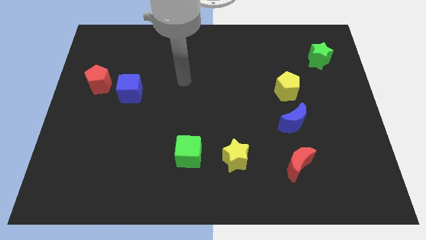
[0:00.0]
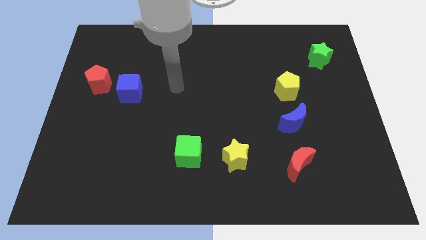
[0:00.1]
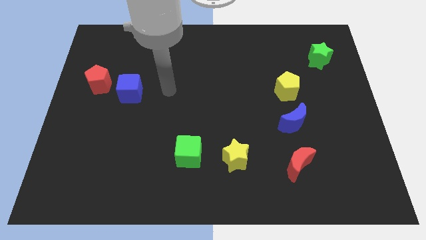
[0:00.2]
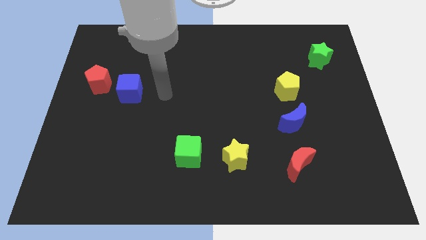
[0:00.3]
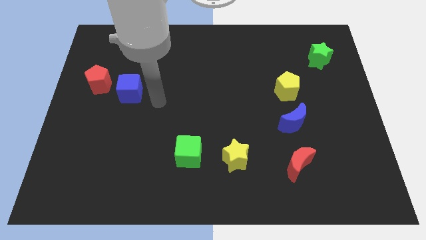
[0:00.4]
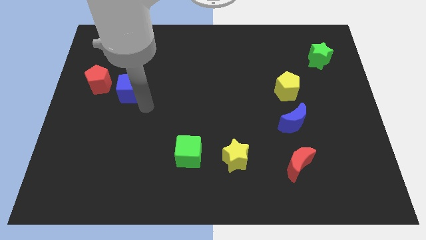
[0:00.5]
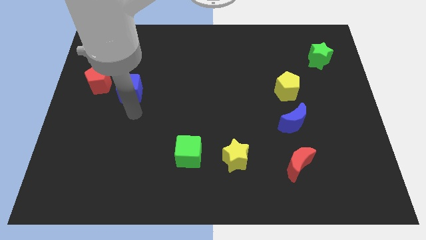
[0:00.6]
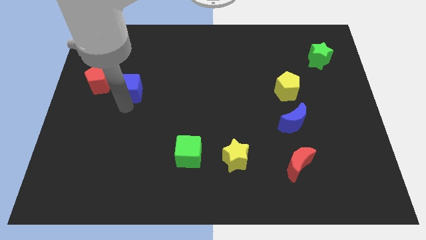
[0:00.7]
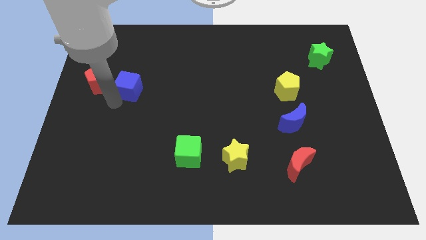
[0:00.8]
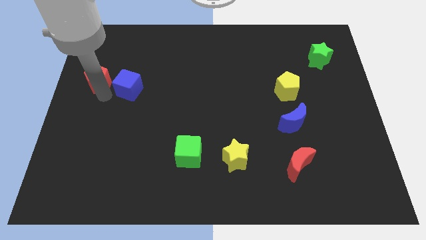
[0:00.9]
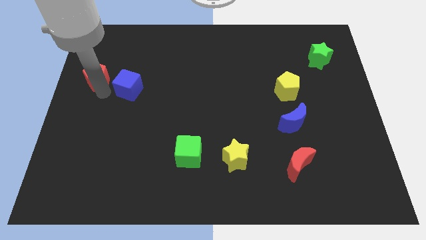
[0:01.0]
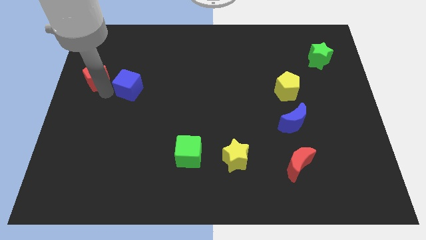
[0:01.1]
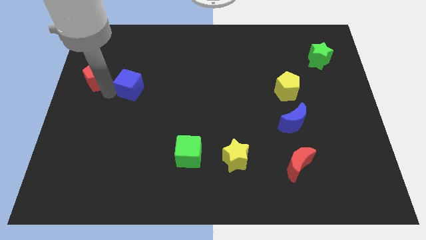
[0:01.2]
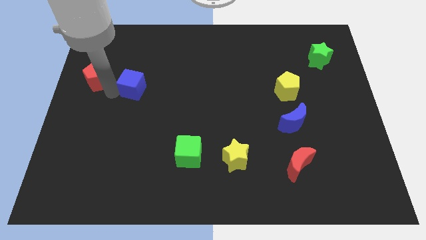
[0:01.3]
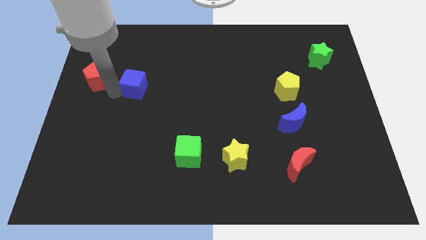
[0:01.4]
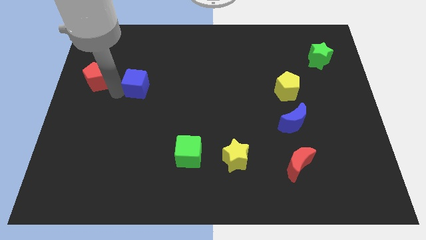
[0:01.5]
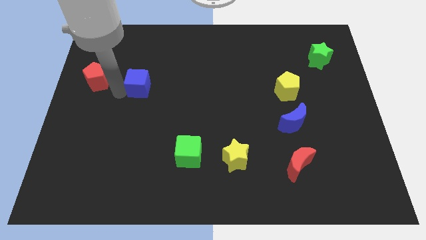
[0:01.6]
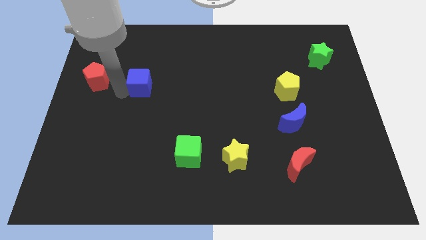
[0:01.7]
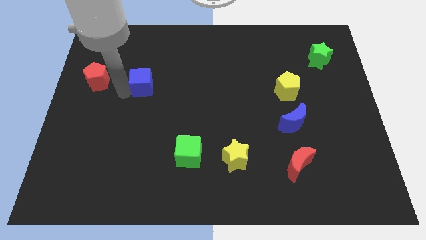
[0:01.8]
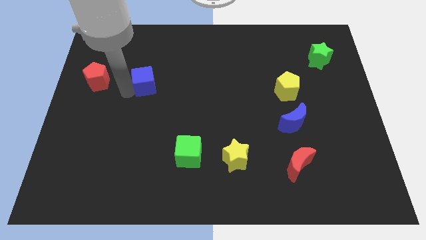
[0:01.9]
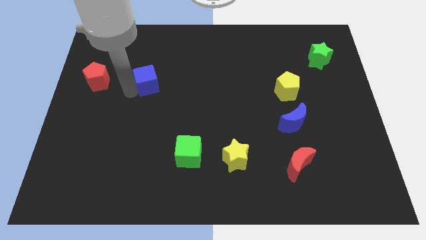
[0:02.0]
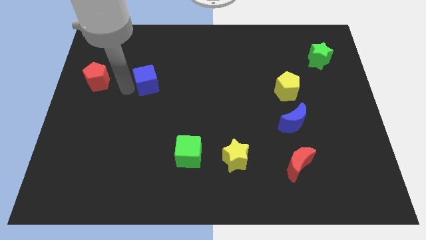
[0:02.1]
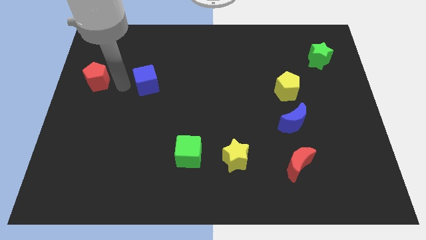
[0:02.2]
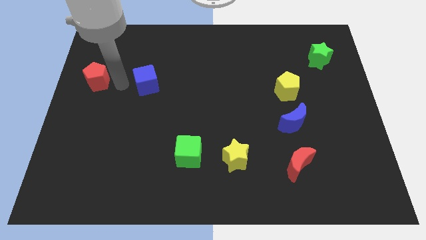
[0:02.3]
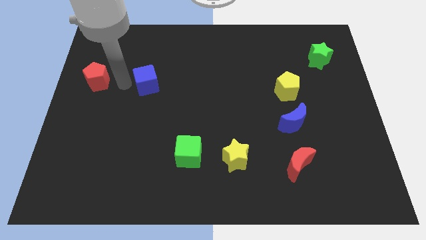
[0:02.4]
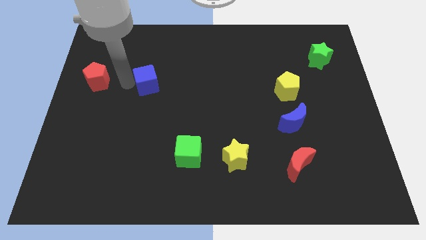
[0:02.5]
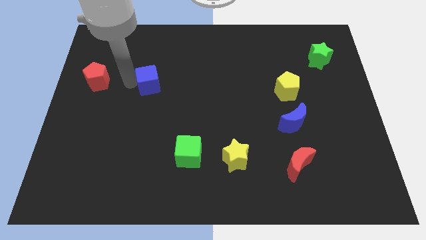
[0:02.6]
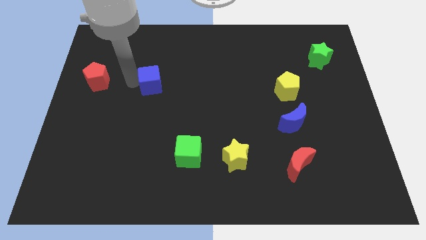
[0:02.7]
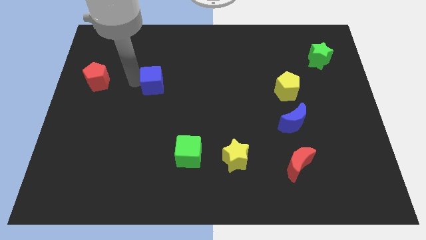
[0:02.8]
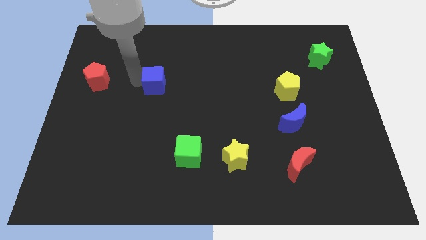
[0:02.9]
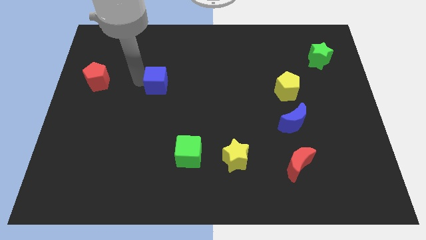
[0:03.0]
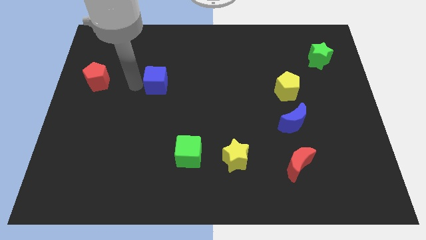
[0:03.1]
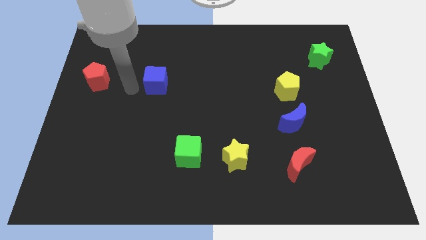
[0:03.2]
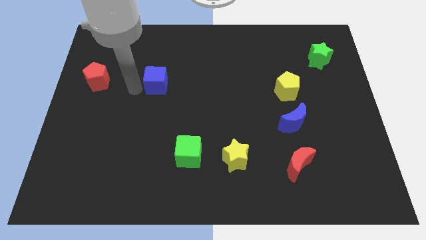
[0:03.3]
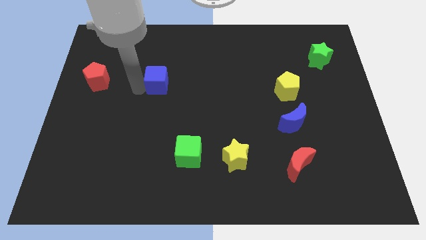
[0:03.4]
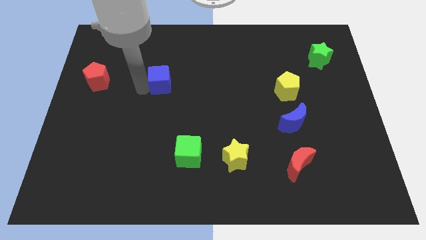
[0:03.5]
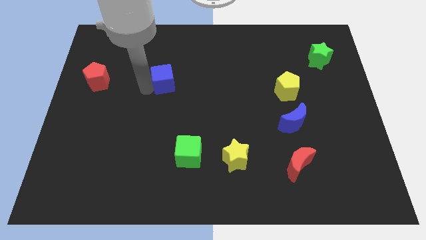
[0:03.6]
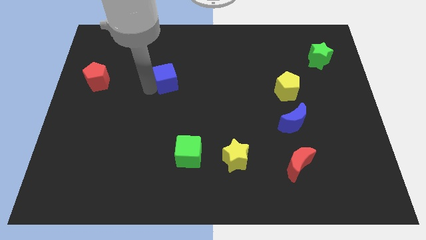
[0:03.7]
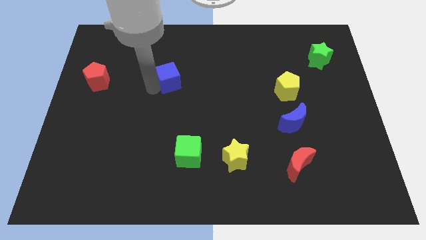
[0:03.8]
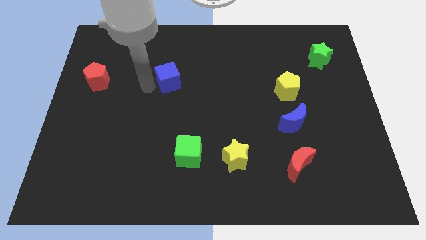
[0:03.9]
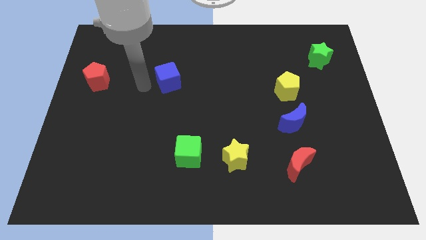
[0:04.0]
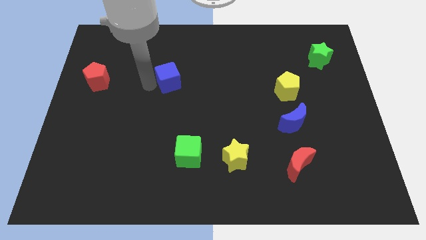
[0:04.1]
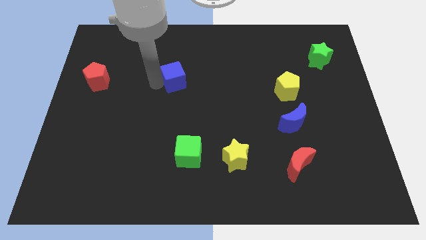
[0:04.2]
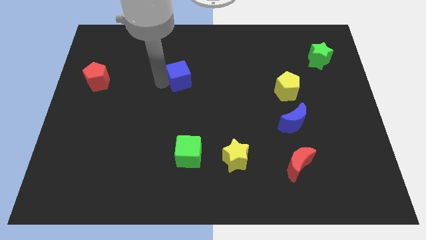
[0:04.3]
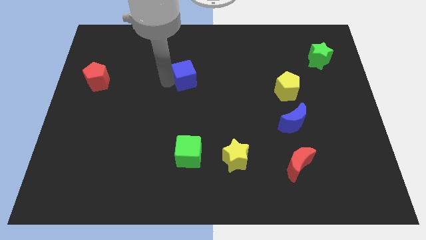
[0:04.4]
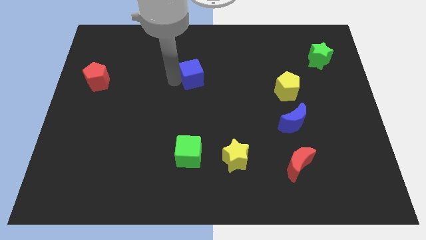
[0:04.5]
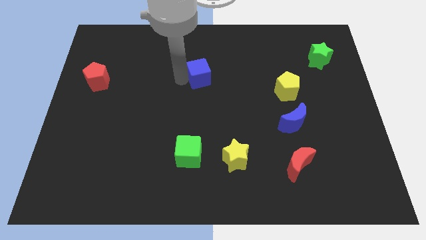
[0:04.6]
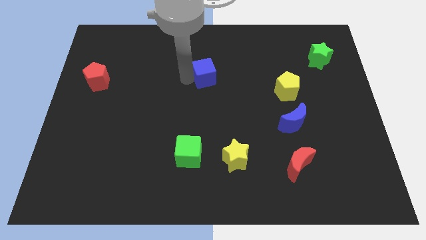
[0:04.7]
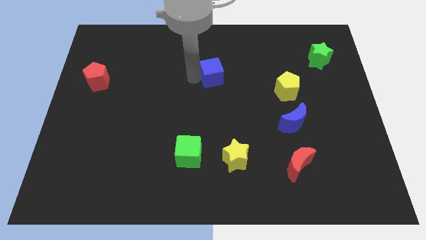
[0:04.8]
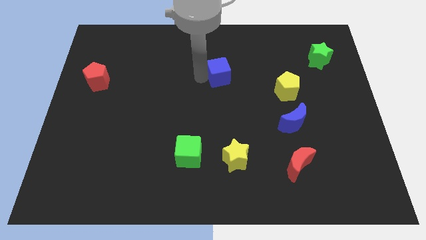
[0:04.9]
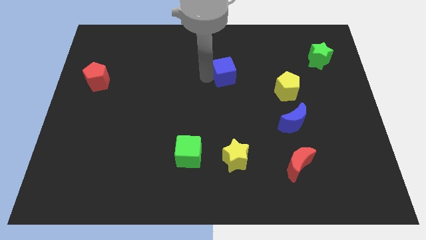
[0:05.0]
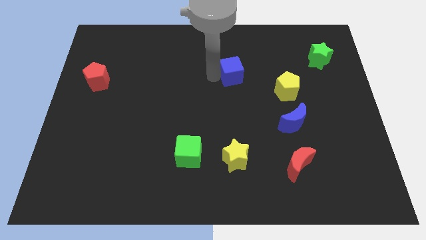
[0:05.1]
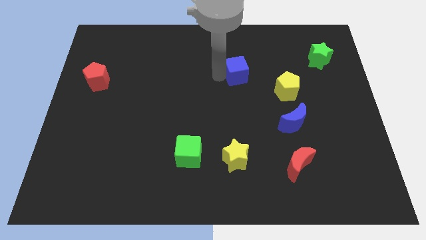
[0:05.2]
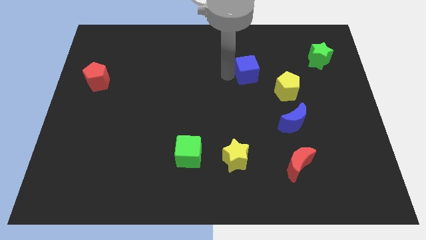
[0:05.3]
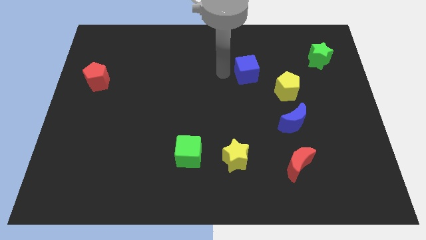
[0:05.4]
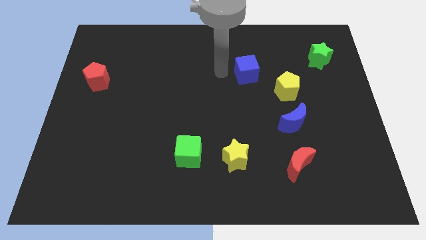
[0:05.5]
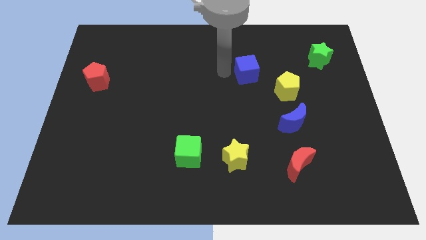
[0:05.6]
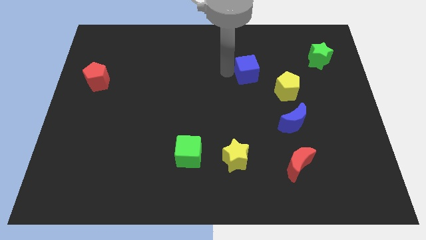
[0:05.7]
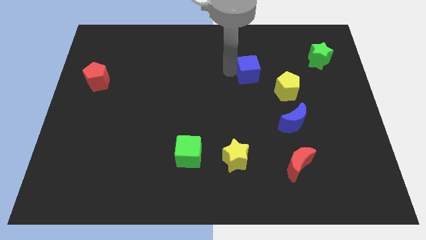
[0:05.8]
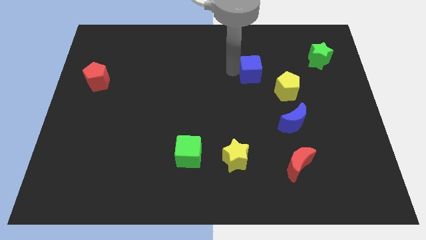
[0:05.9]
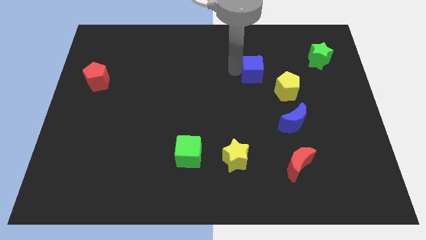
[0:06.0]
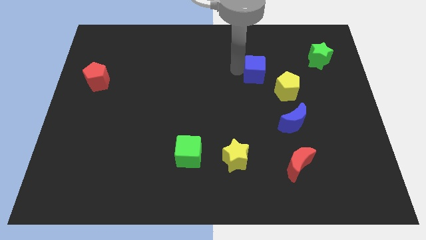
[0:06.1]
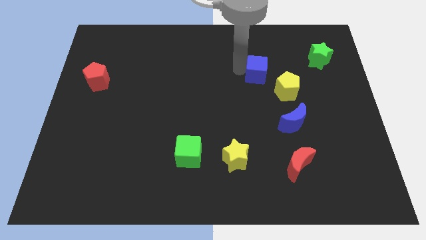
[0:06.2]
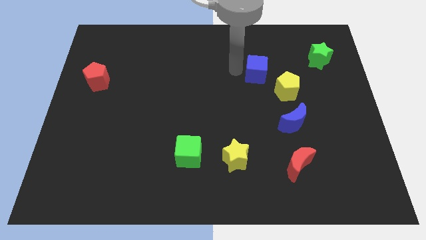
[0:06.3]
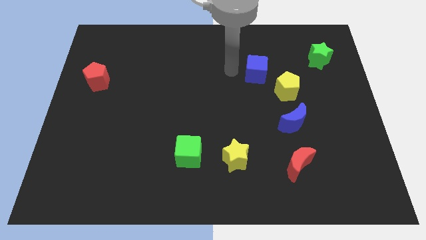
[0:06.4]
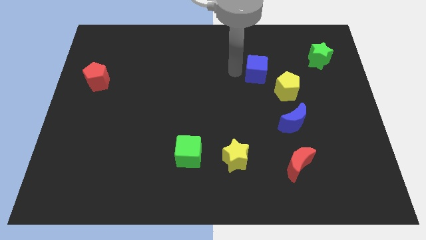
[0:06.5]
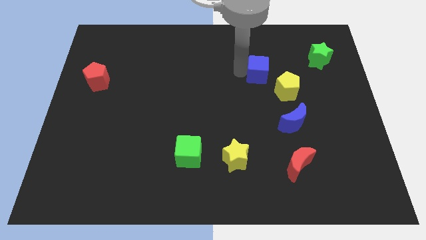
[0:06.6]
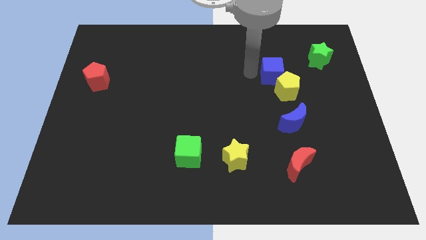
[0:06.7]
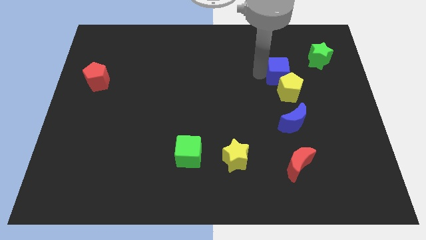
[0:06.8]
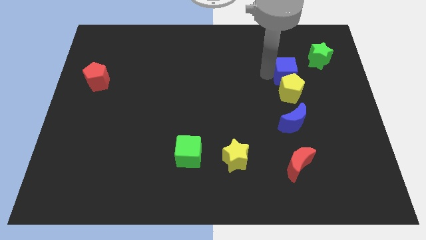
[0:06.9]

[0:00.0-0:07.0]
slide the blue cube to the top right of the yellow pentagon
